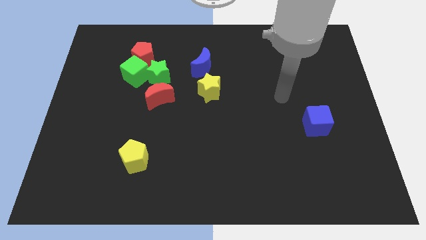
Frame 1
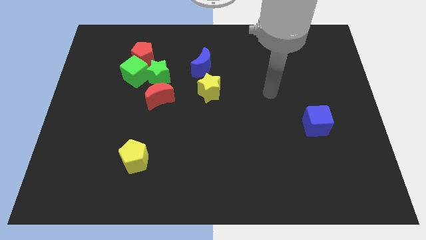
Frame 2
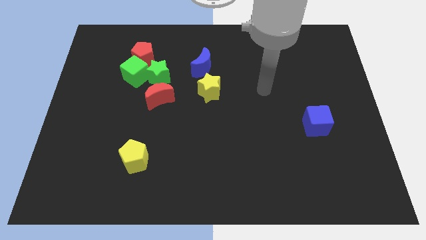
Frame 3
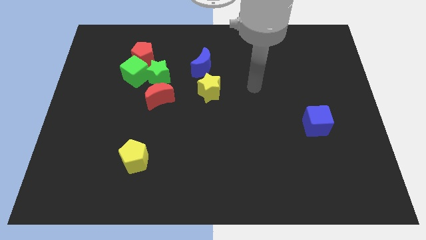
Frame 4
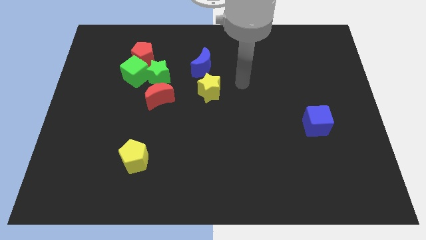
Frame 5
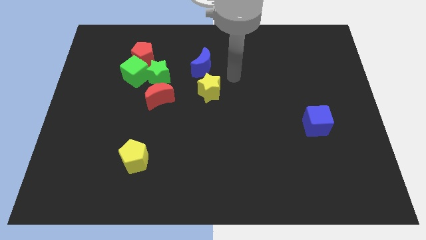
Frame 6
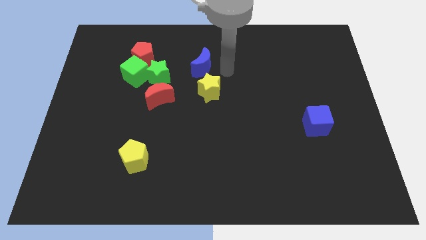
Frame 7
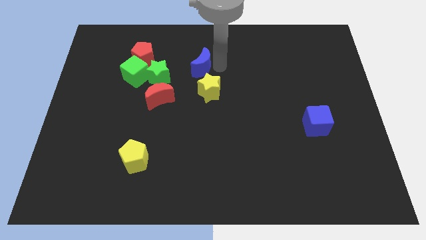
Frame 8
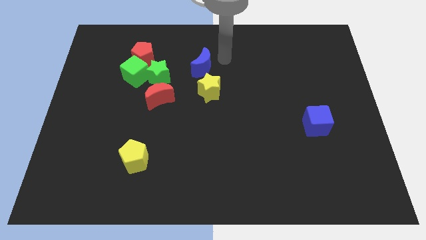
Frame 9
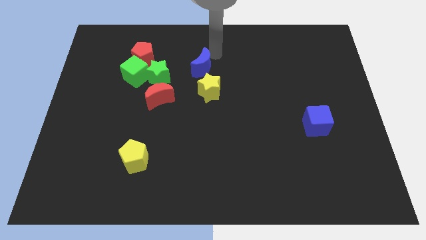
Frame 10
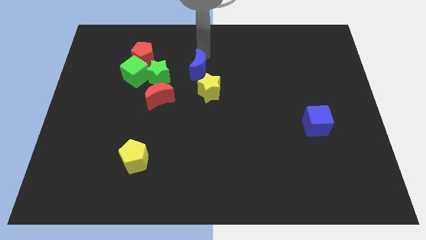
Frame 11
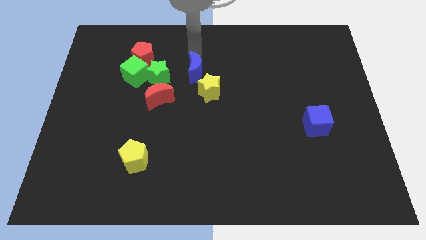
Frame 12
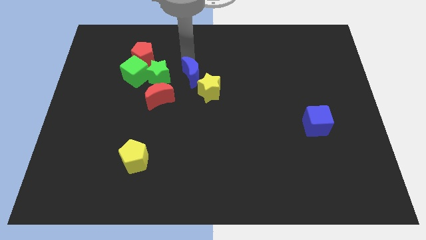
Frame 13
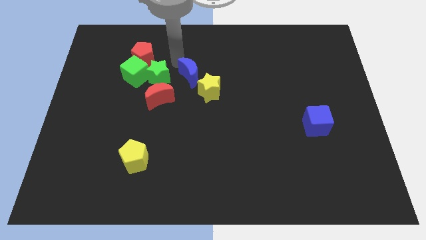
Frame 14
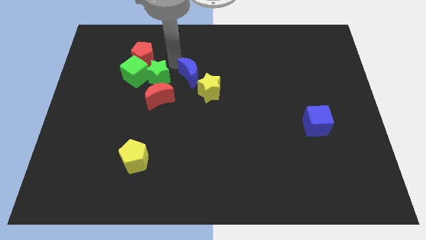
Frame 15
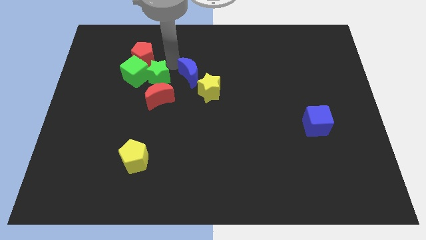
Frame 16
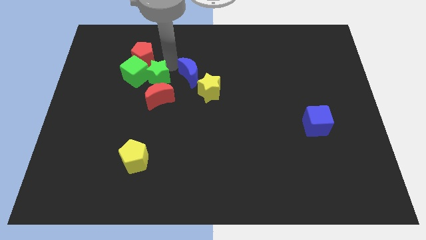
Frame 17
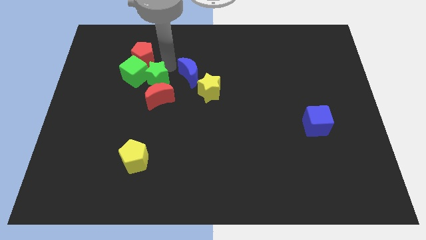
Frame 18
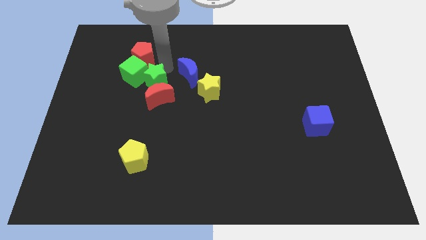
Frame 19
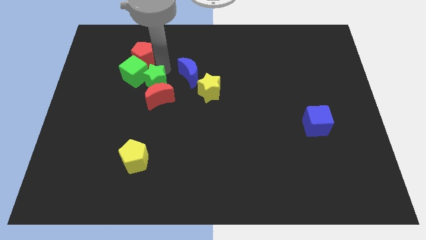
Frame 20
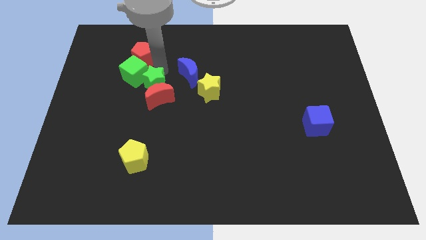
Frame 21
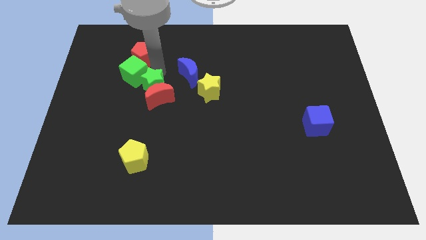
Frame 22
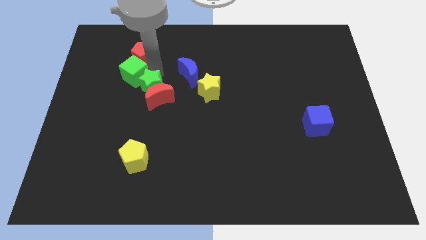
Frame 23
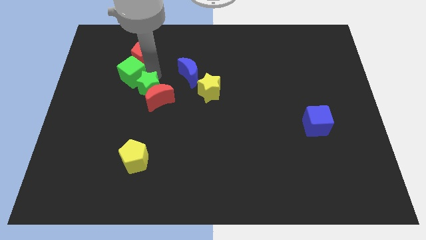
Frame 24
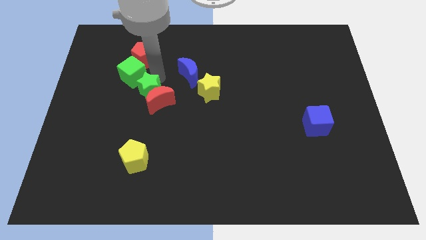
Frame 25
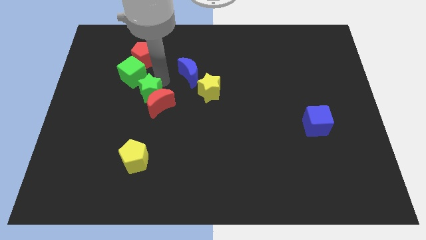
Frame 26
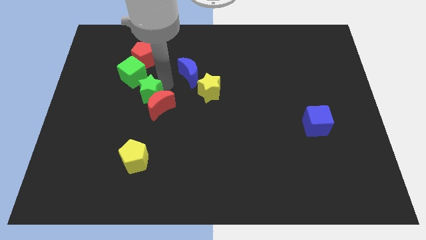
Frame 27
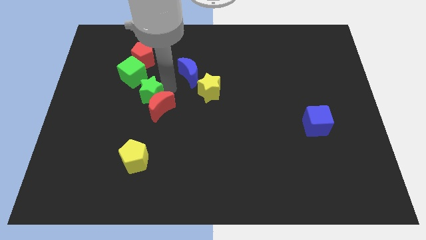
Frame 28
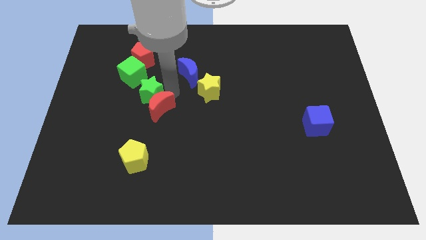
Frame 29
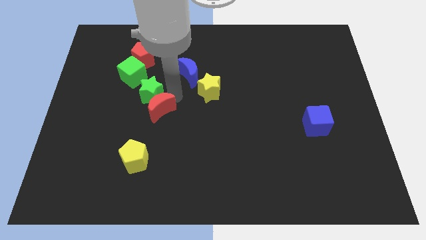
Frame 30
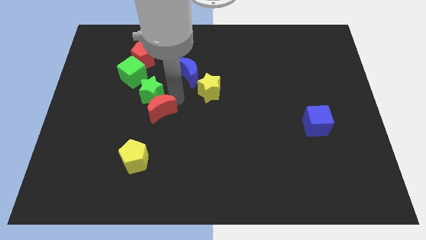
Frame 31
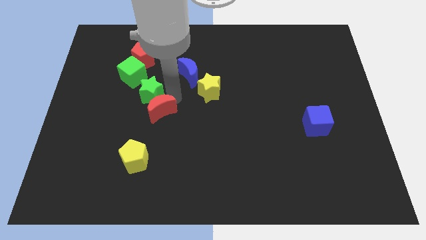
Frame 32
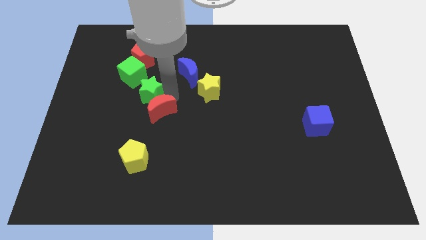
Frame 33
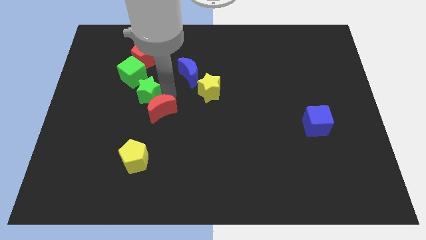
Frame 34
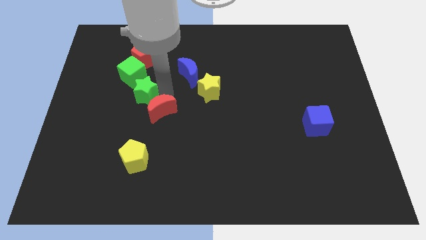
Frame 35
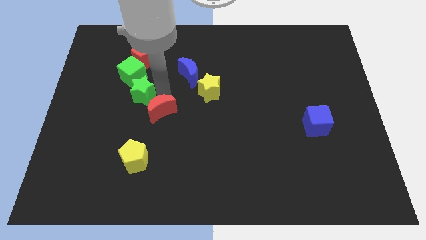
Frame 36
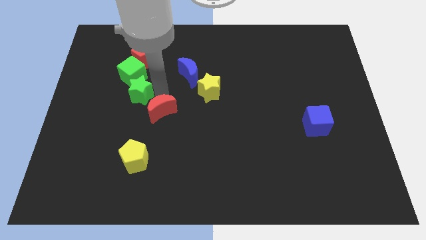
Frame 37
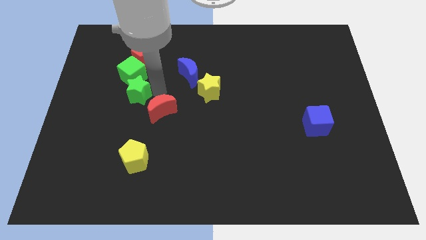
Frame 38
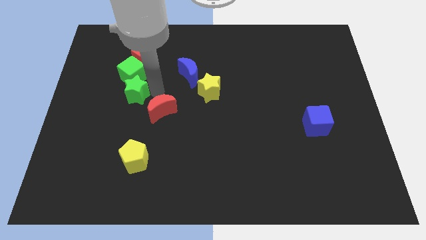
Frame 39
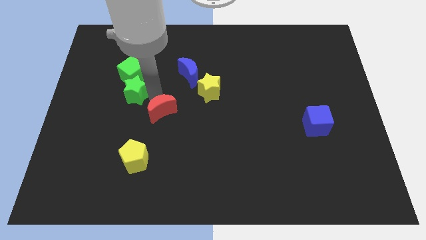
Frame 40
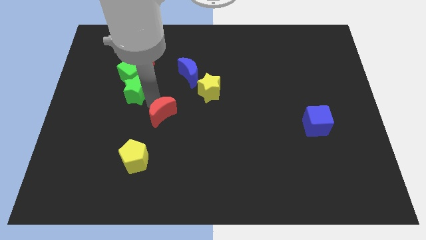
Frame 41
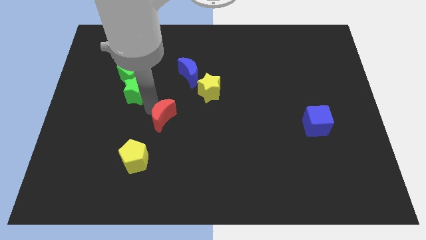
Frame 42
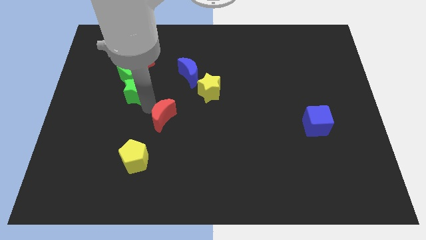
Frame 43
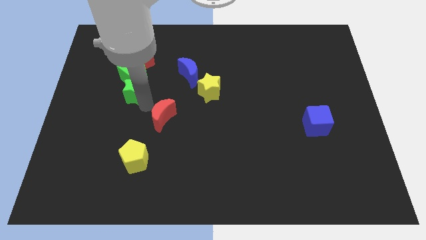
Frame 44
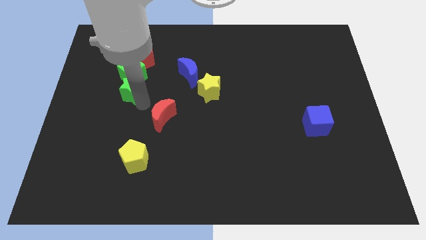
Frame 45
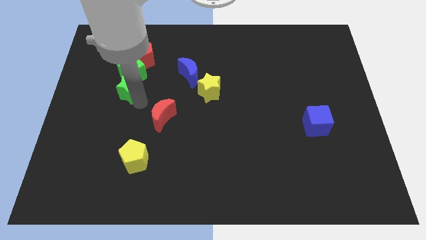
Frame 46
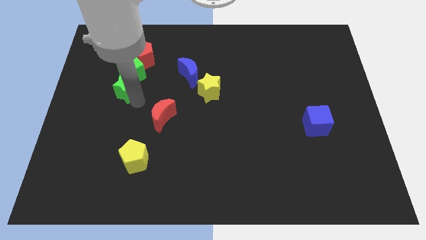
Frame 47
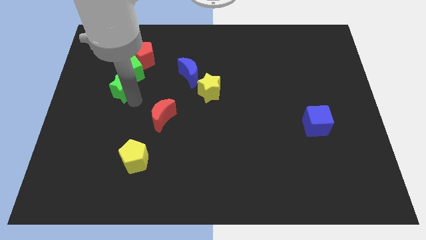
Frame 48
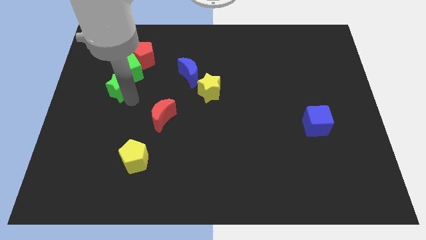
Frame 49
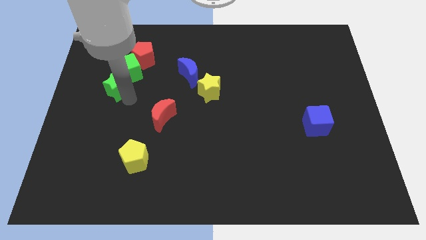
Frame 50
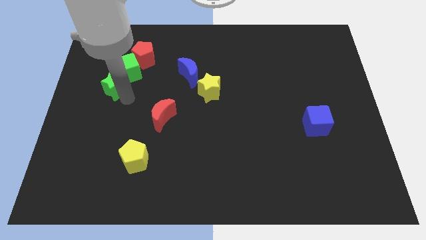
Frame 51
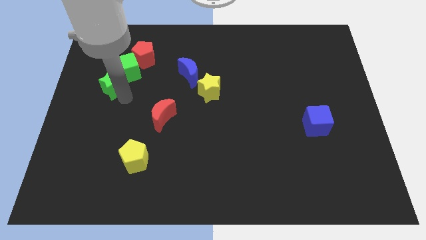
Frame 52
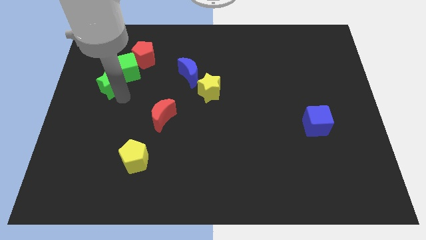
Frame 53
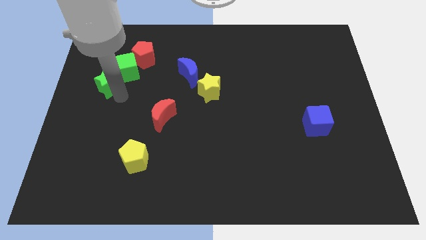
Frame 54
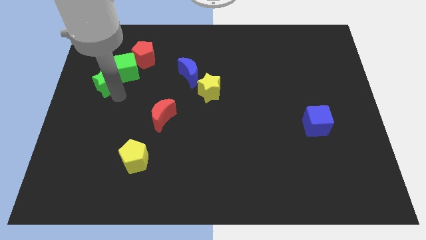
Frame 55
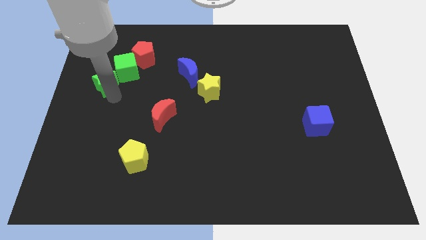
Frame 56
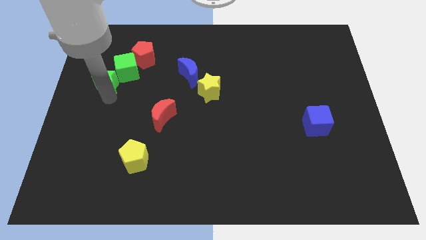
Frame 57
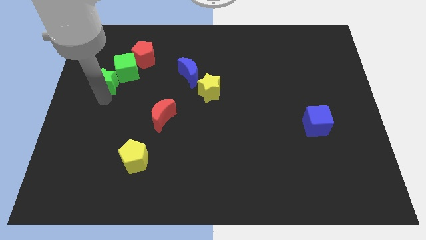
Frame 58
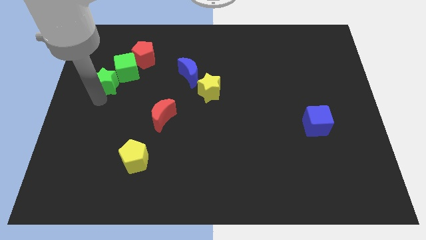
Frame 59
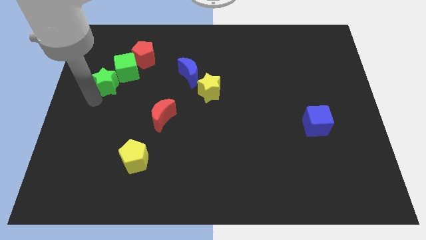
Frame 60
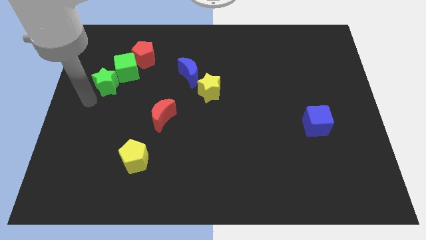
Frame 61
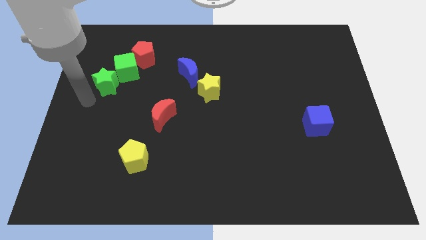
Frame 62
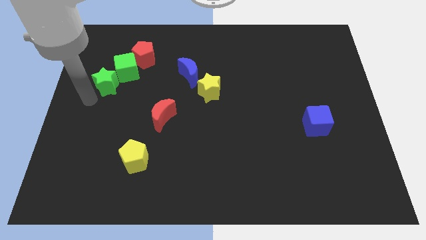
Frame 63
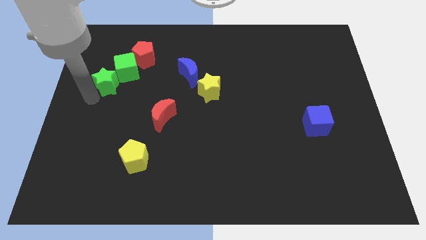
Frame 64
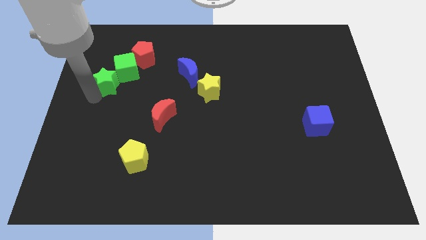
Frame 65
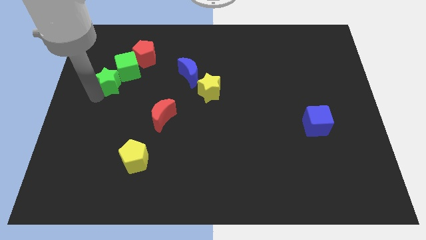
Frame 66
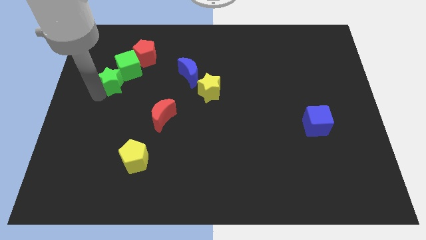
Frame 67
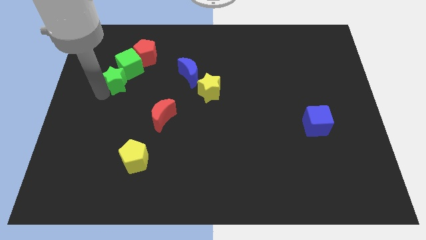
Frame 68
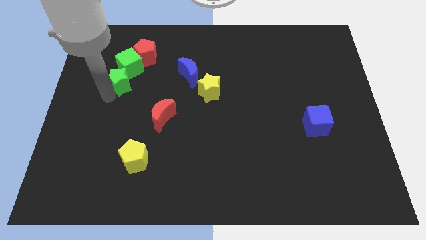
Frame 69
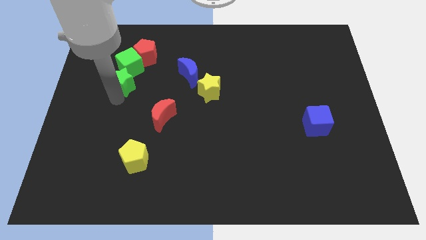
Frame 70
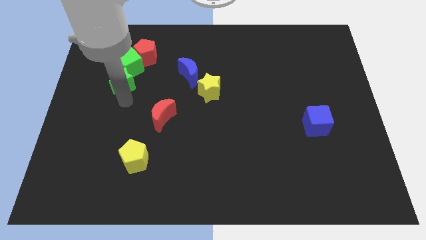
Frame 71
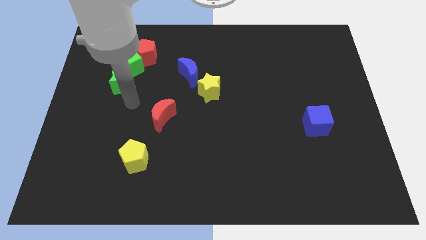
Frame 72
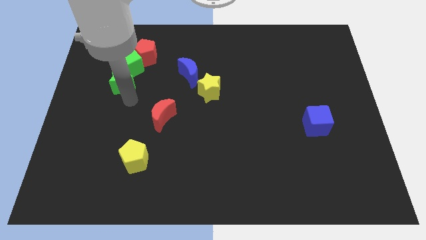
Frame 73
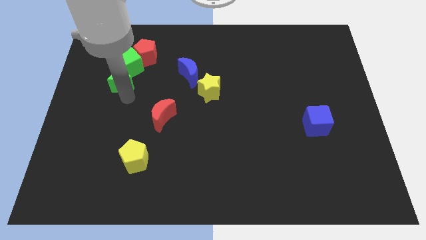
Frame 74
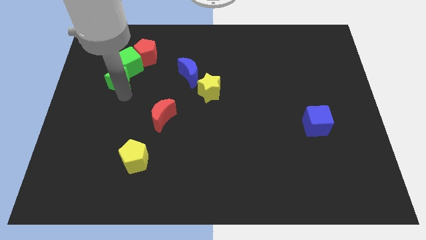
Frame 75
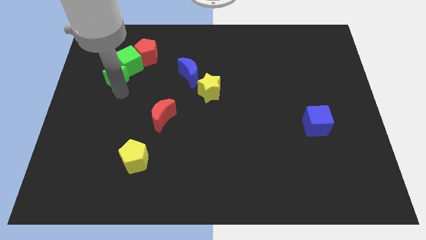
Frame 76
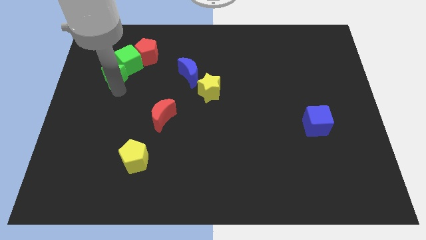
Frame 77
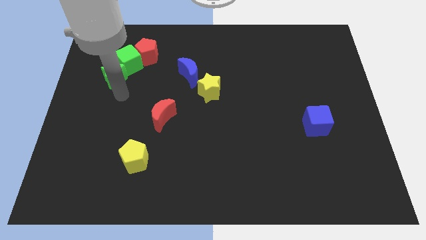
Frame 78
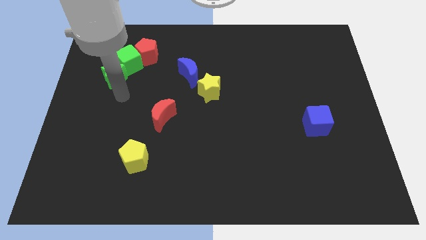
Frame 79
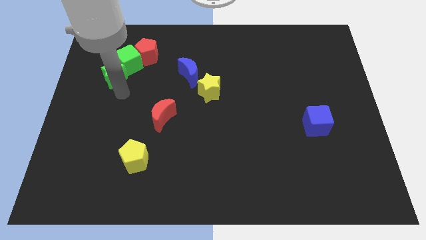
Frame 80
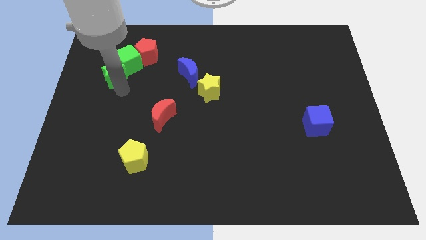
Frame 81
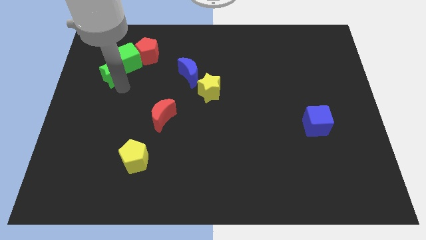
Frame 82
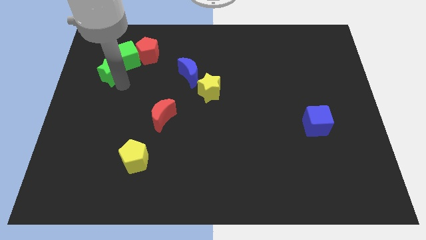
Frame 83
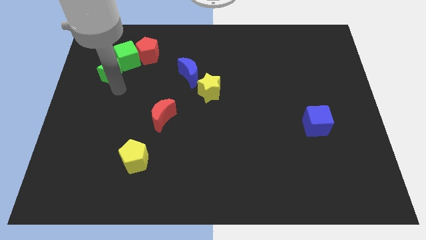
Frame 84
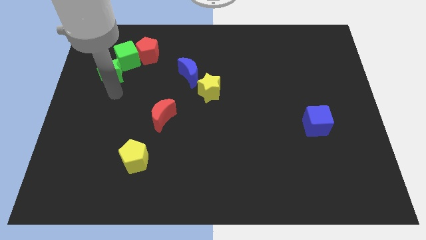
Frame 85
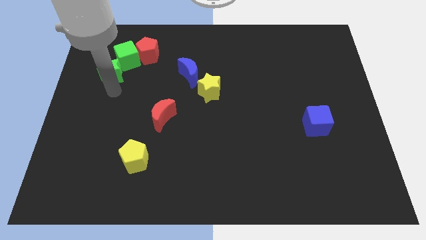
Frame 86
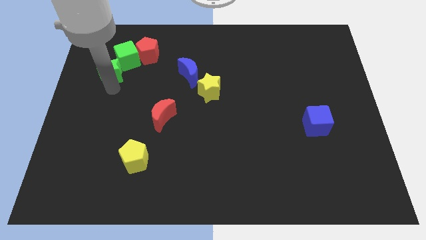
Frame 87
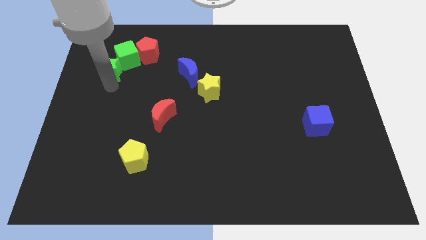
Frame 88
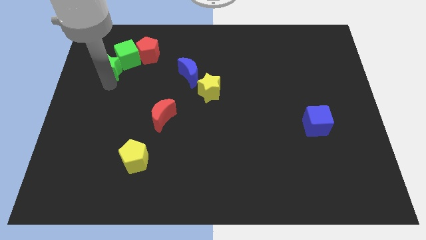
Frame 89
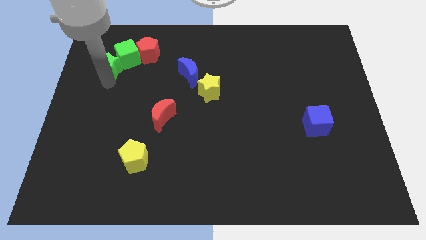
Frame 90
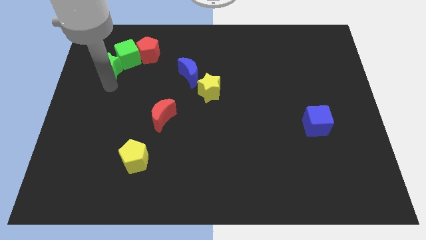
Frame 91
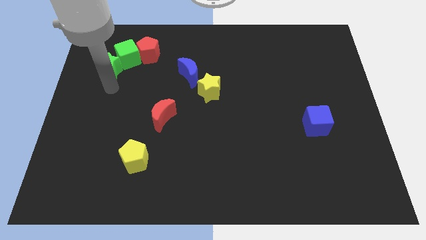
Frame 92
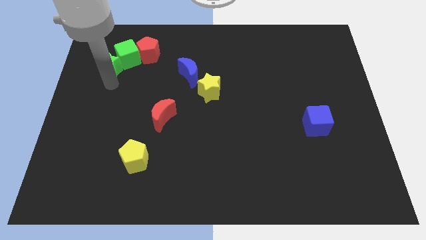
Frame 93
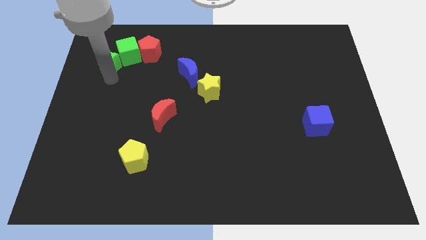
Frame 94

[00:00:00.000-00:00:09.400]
push the green star just left of the red pentagon
